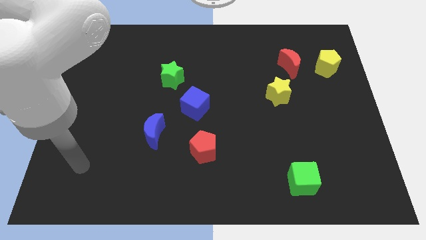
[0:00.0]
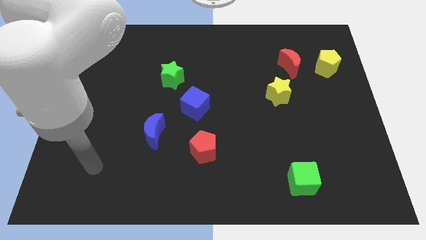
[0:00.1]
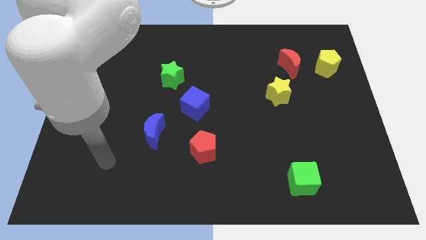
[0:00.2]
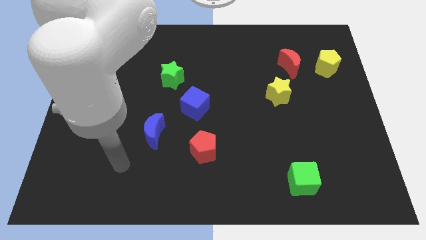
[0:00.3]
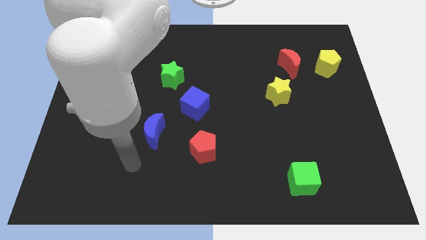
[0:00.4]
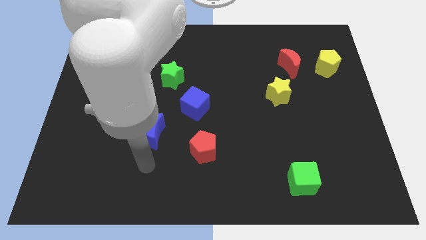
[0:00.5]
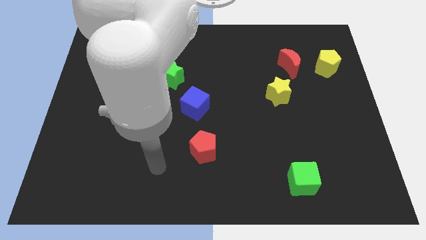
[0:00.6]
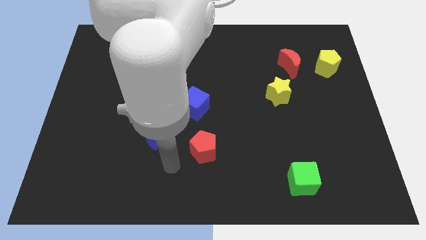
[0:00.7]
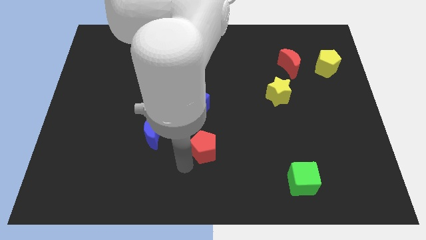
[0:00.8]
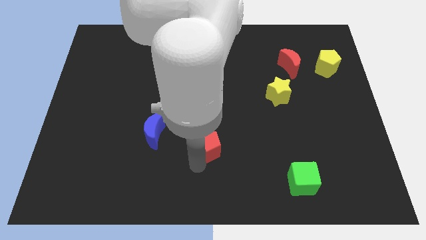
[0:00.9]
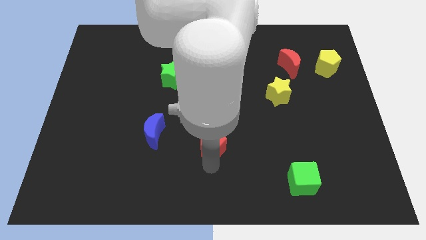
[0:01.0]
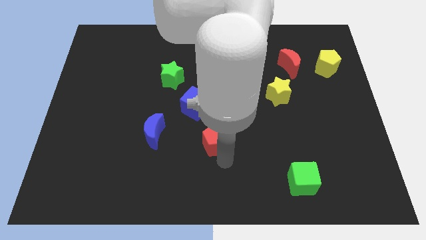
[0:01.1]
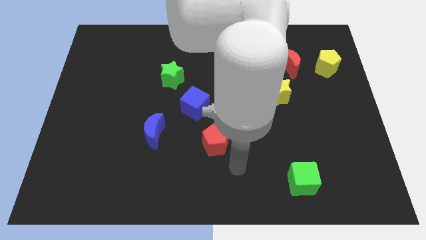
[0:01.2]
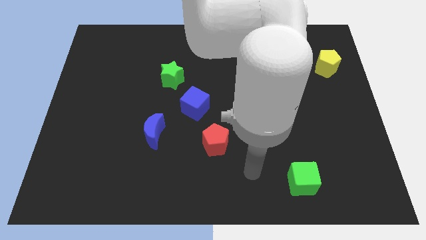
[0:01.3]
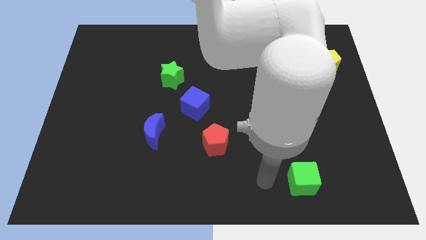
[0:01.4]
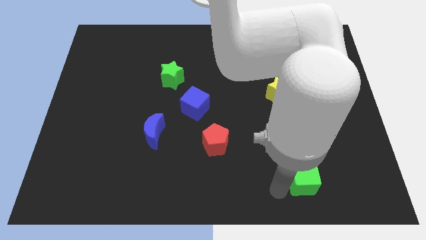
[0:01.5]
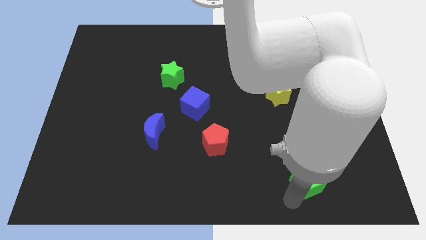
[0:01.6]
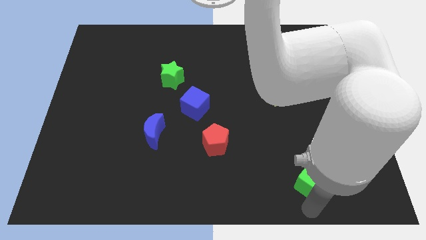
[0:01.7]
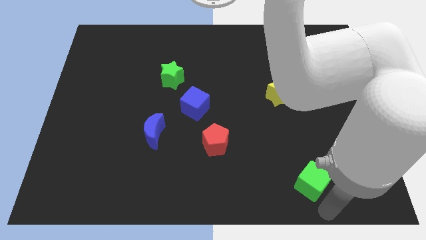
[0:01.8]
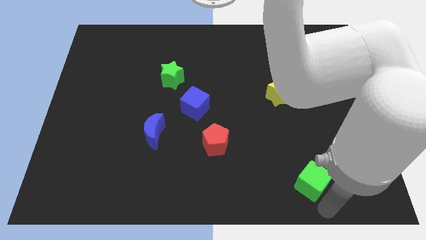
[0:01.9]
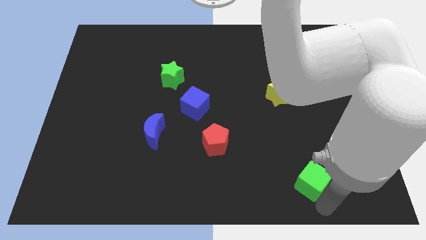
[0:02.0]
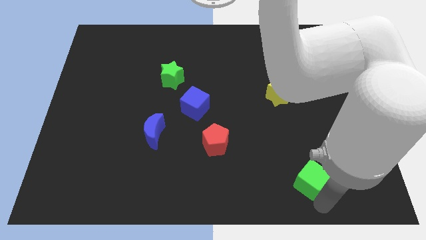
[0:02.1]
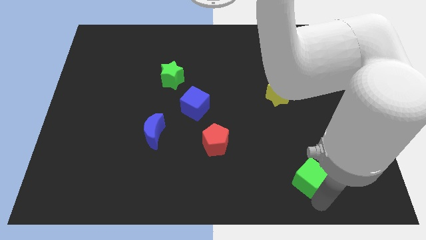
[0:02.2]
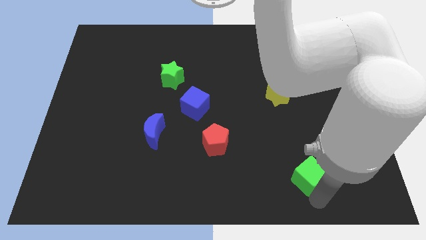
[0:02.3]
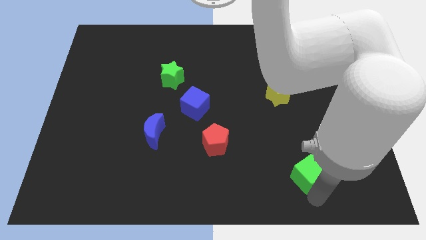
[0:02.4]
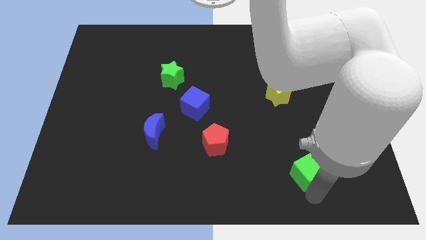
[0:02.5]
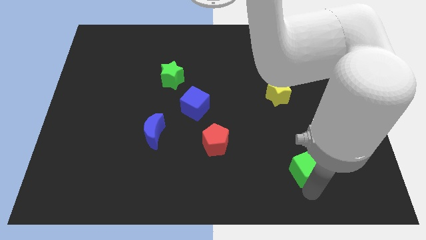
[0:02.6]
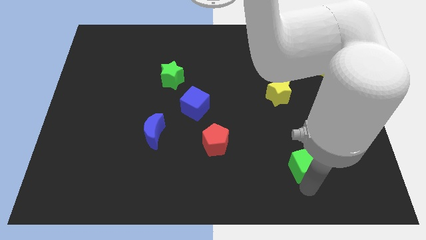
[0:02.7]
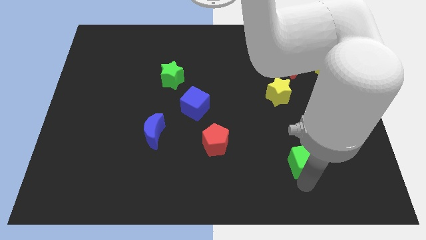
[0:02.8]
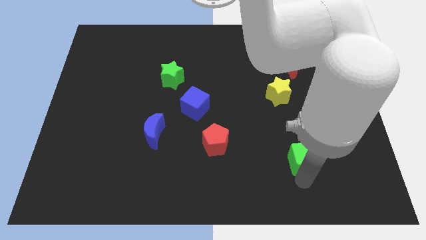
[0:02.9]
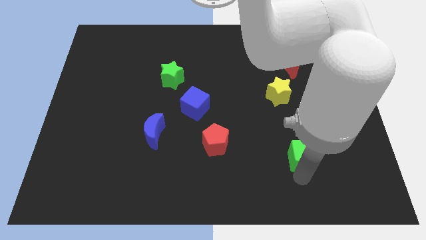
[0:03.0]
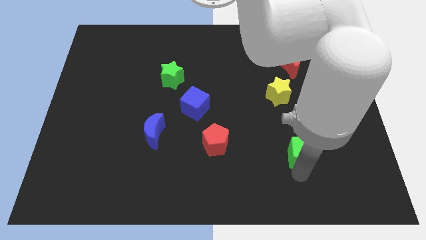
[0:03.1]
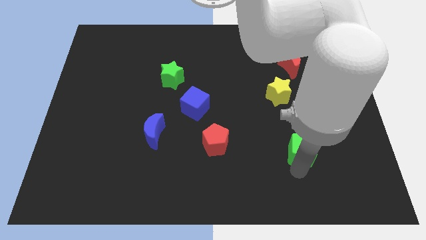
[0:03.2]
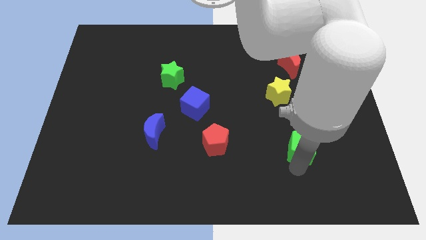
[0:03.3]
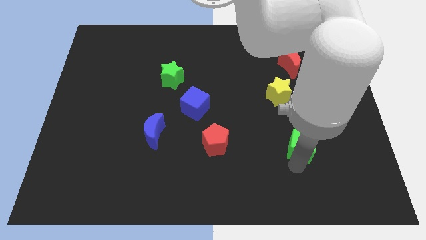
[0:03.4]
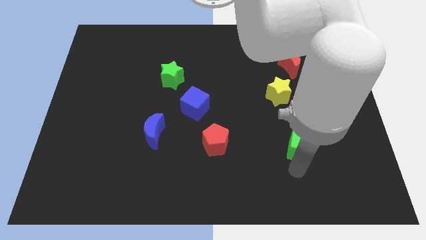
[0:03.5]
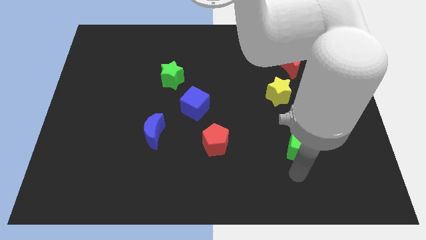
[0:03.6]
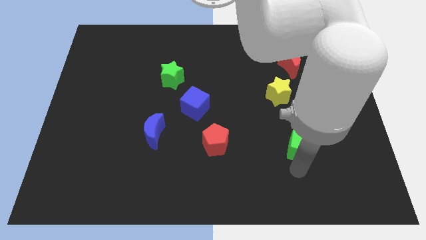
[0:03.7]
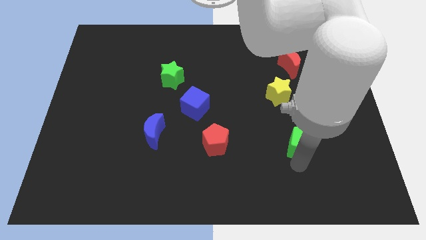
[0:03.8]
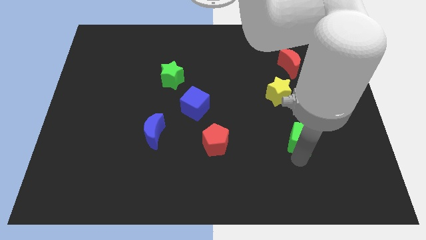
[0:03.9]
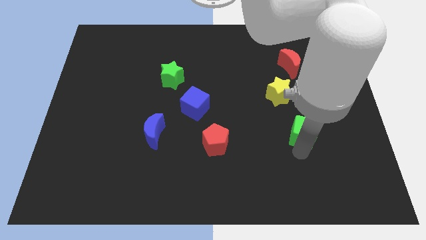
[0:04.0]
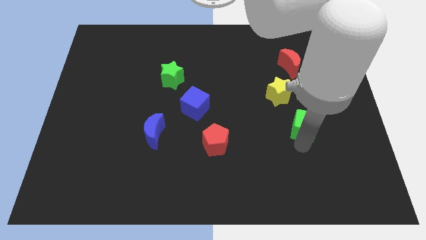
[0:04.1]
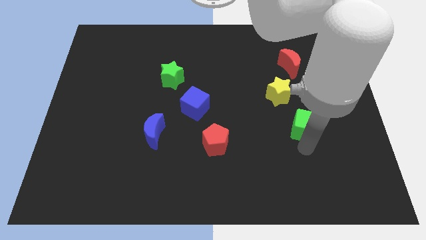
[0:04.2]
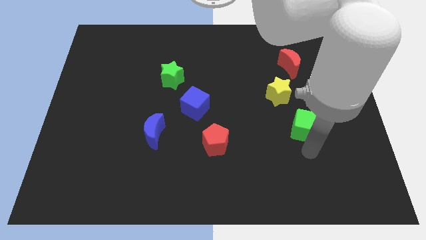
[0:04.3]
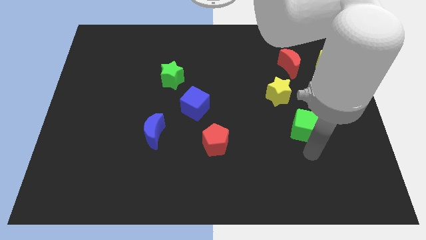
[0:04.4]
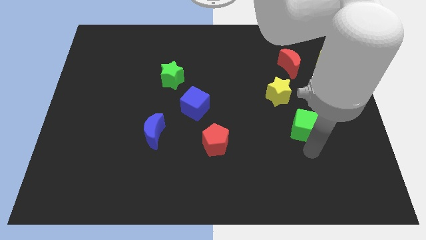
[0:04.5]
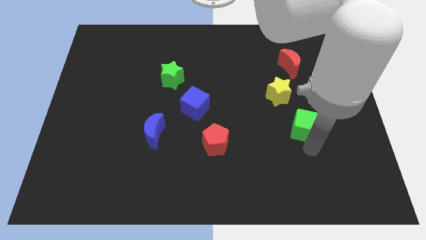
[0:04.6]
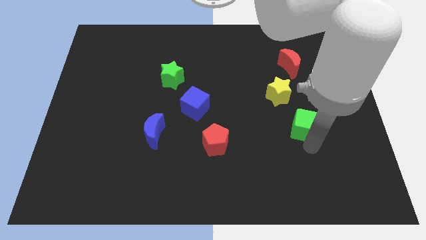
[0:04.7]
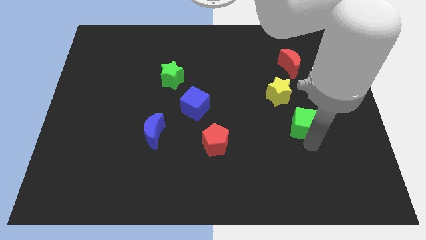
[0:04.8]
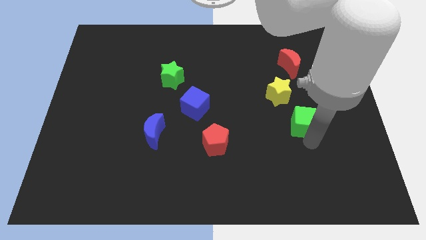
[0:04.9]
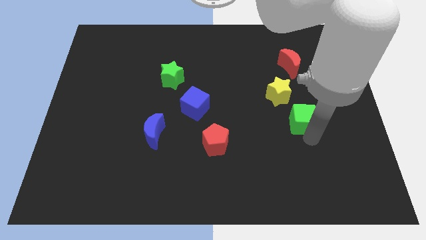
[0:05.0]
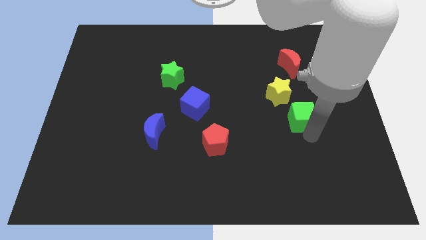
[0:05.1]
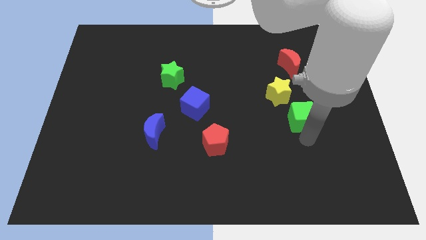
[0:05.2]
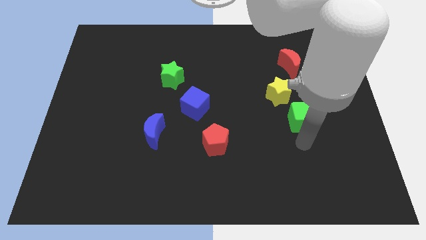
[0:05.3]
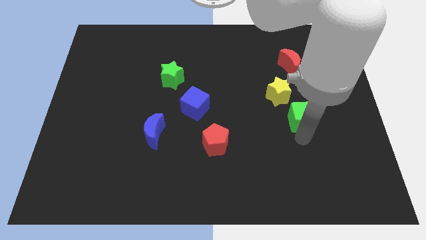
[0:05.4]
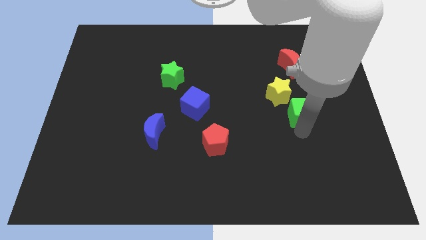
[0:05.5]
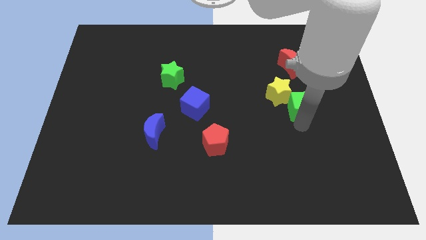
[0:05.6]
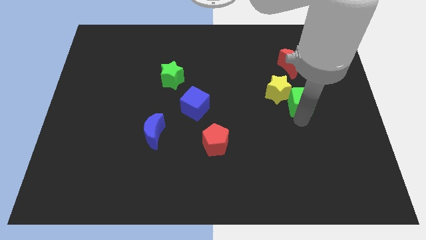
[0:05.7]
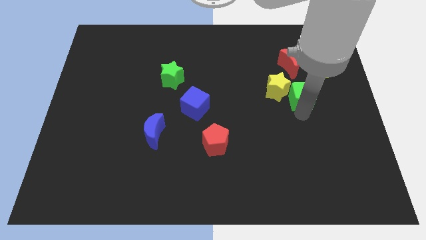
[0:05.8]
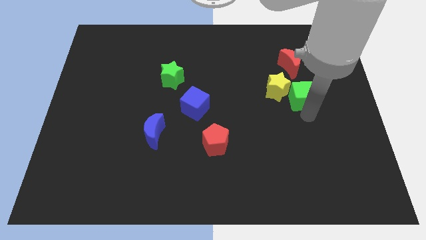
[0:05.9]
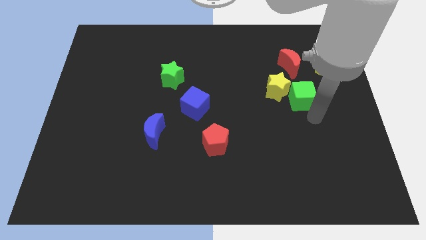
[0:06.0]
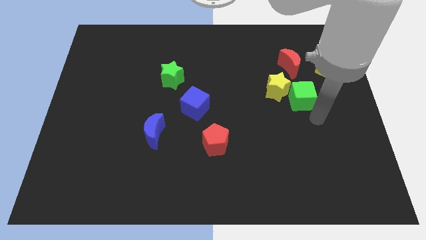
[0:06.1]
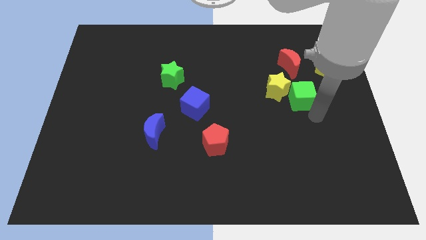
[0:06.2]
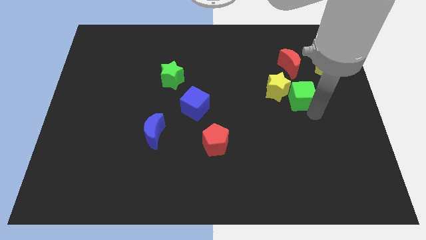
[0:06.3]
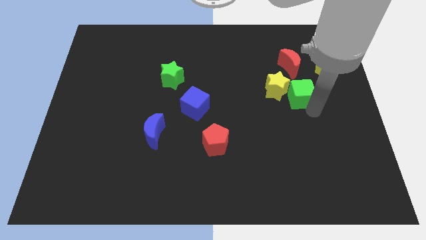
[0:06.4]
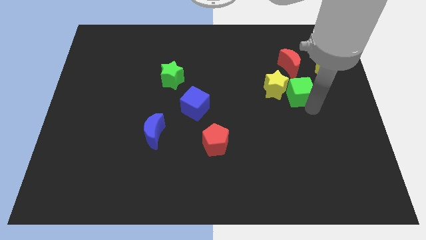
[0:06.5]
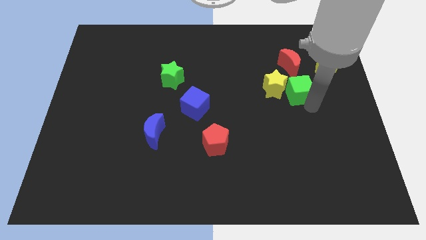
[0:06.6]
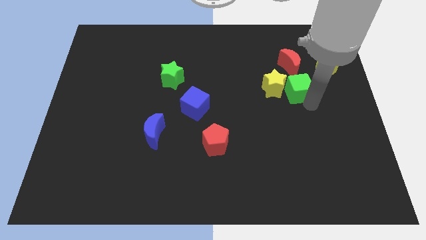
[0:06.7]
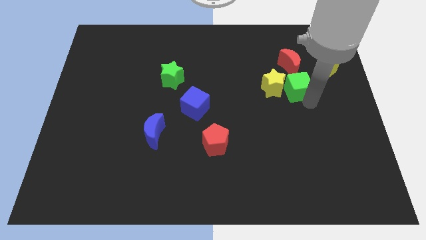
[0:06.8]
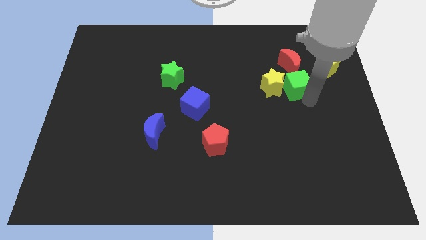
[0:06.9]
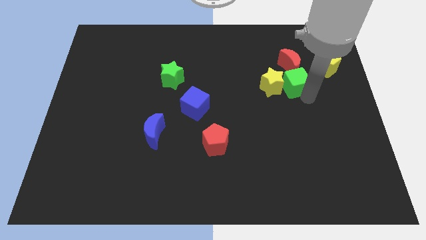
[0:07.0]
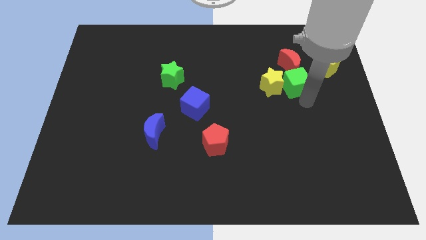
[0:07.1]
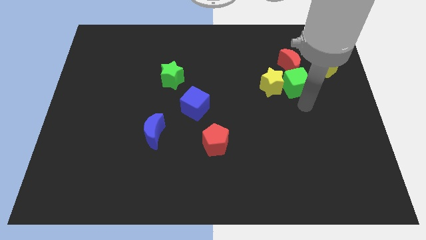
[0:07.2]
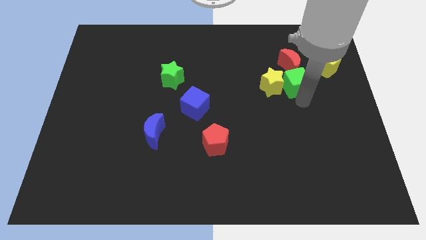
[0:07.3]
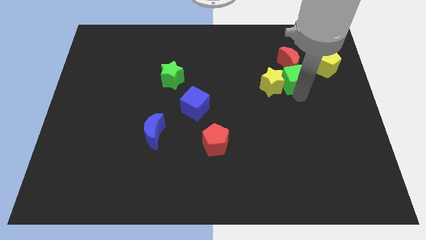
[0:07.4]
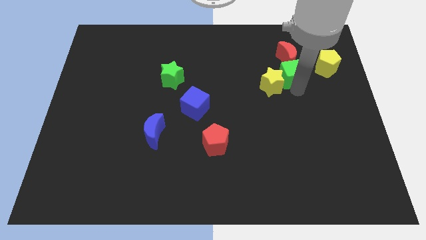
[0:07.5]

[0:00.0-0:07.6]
slide the green cube left of the yellow pentagon

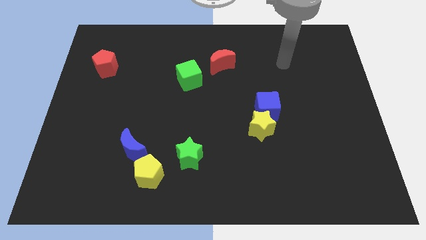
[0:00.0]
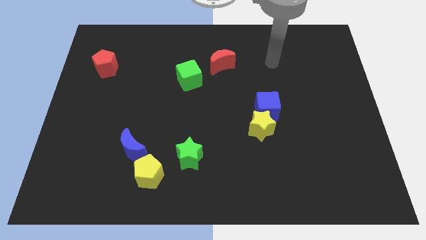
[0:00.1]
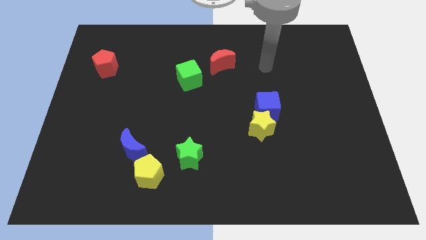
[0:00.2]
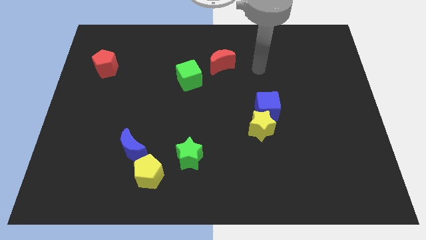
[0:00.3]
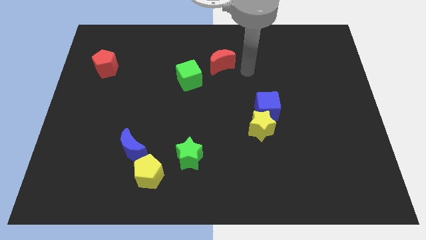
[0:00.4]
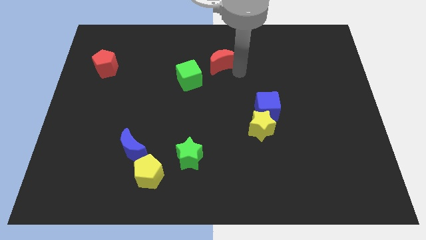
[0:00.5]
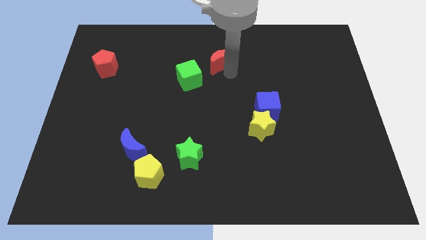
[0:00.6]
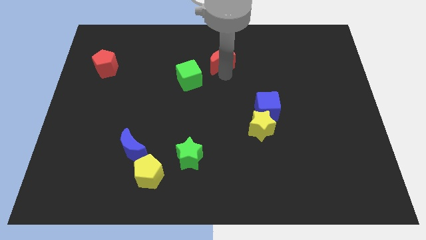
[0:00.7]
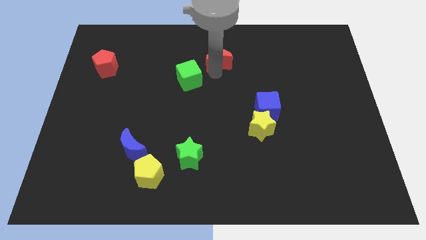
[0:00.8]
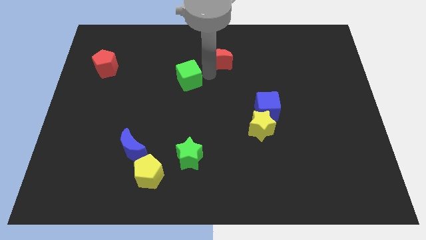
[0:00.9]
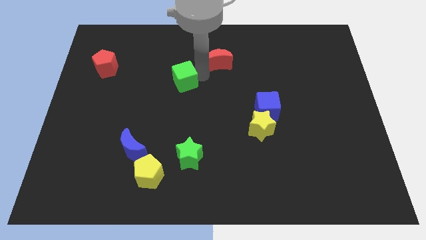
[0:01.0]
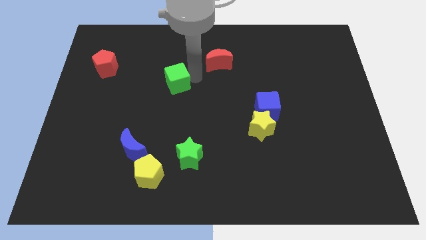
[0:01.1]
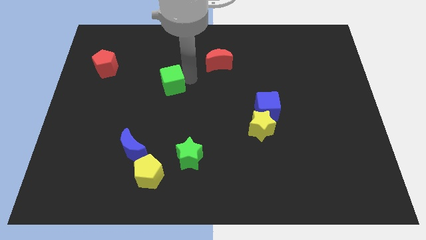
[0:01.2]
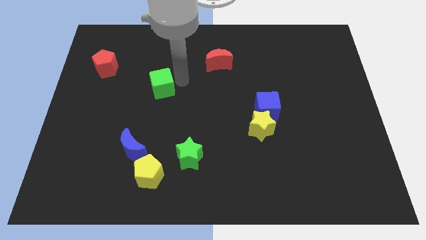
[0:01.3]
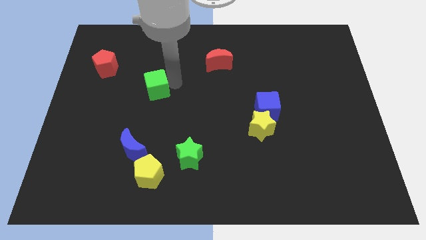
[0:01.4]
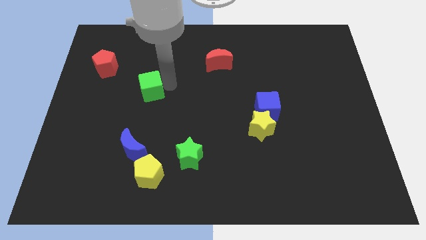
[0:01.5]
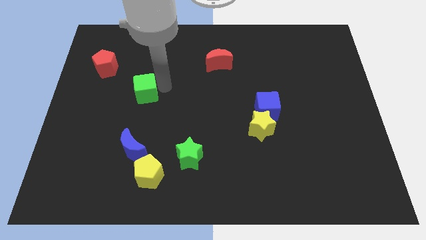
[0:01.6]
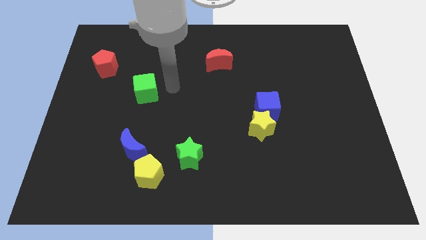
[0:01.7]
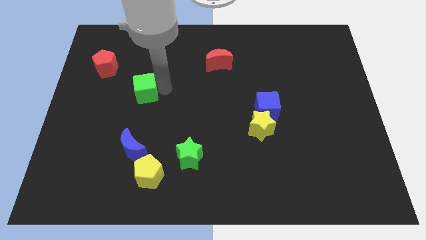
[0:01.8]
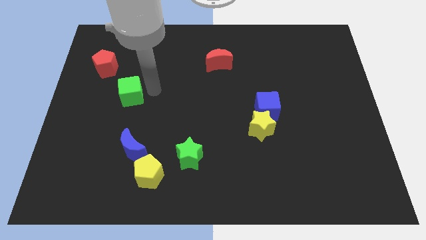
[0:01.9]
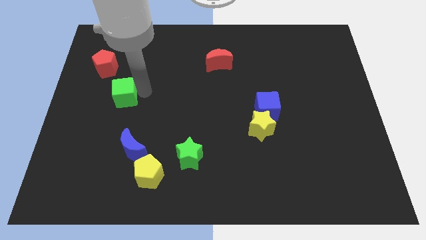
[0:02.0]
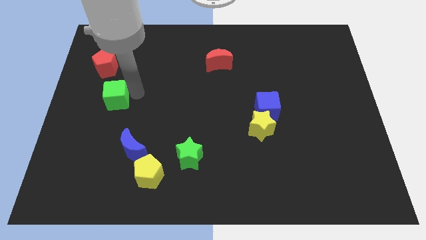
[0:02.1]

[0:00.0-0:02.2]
slide the green cube to the bottom side of the red pentagon
